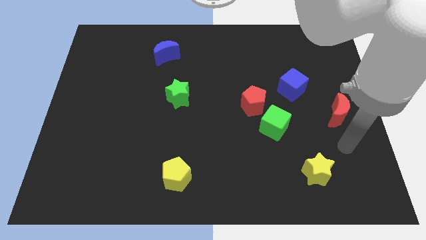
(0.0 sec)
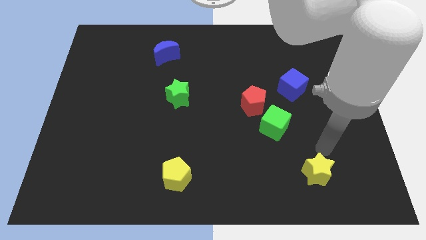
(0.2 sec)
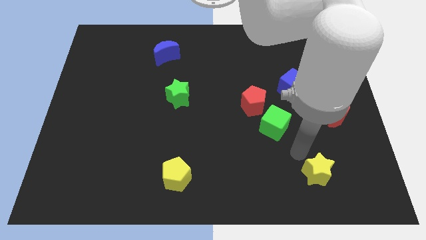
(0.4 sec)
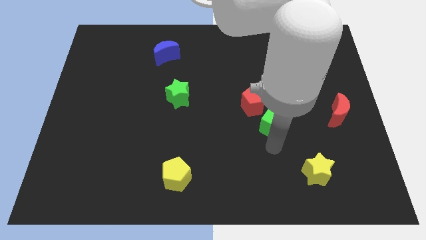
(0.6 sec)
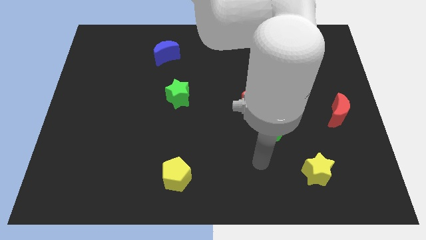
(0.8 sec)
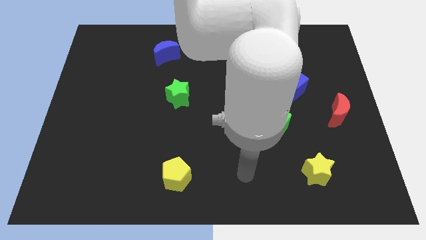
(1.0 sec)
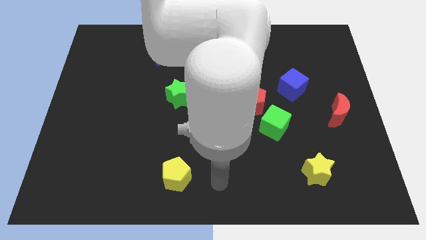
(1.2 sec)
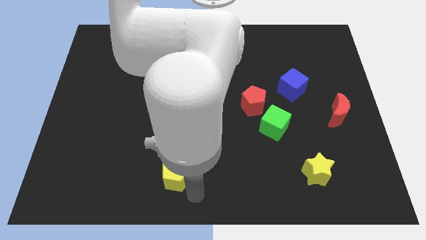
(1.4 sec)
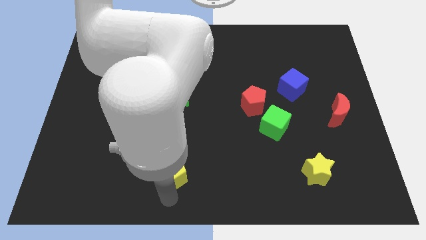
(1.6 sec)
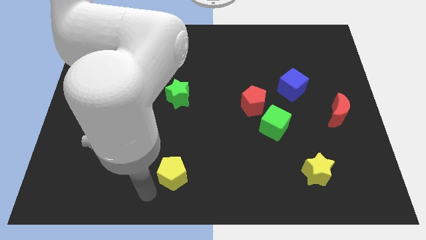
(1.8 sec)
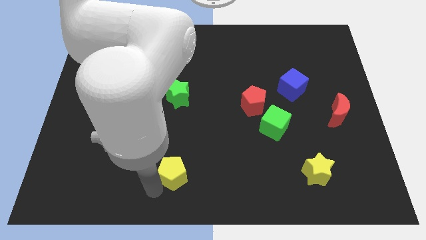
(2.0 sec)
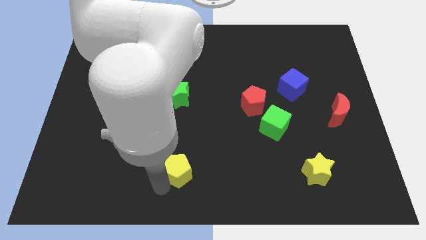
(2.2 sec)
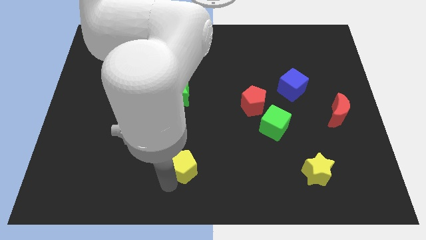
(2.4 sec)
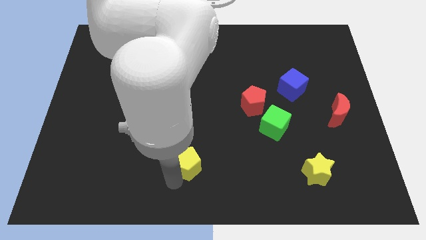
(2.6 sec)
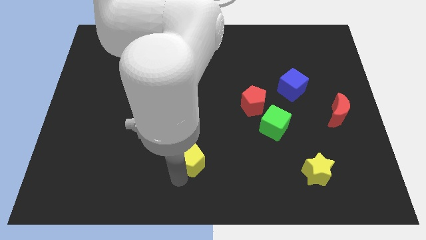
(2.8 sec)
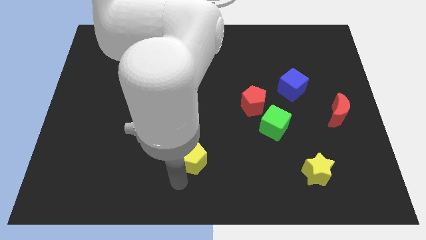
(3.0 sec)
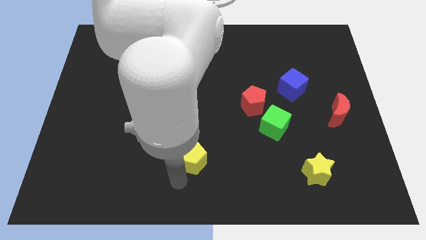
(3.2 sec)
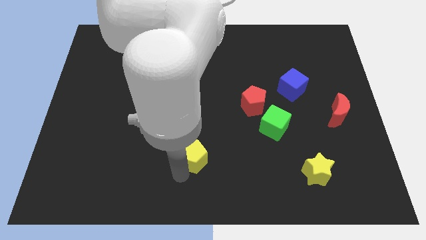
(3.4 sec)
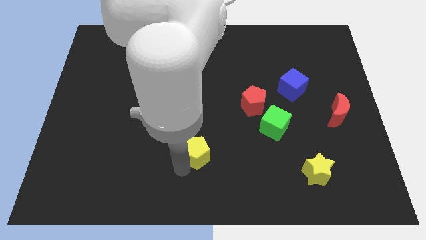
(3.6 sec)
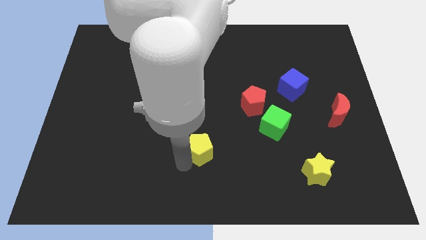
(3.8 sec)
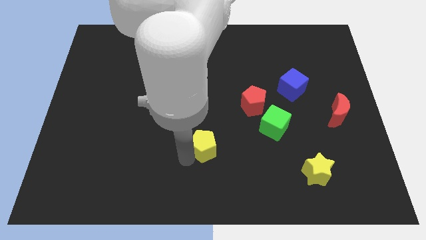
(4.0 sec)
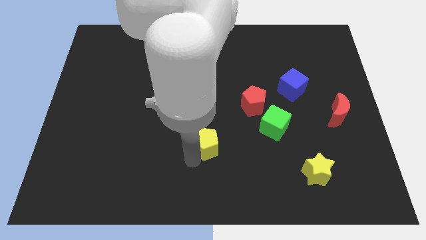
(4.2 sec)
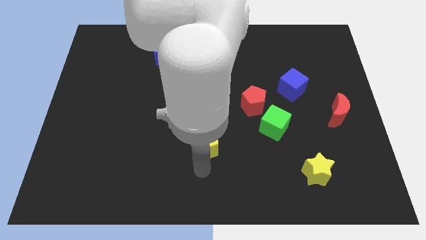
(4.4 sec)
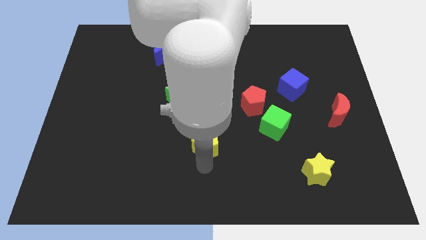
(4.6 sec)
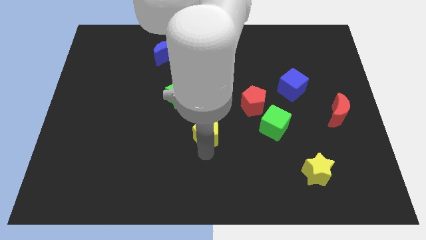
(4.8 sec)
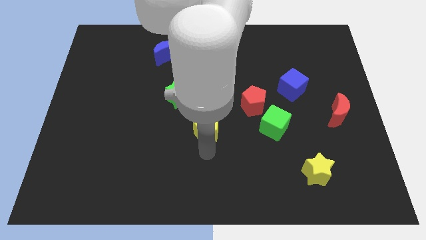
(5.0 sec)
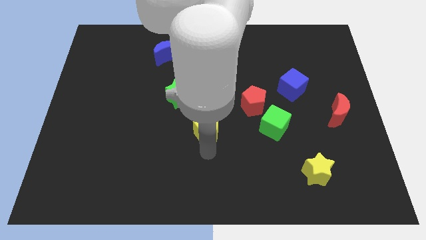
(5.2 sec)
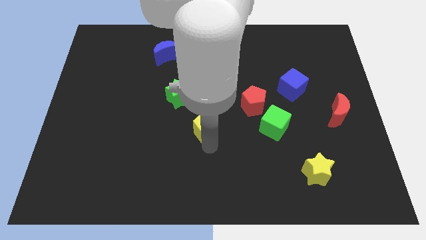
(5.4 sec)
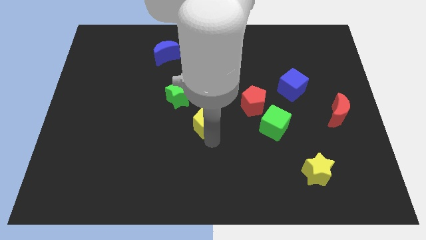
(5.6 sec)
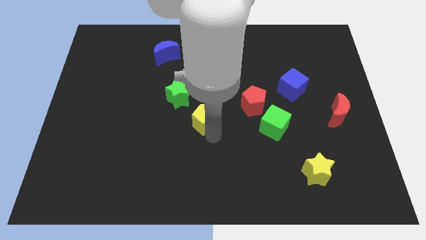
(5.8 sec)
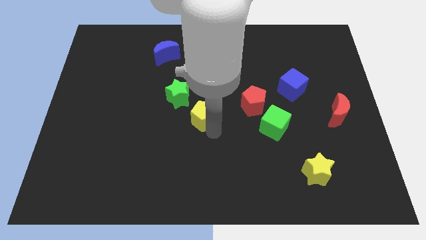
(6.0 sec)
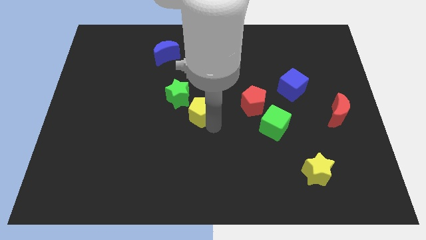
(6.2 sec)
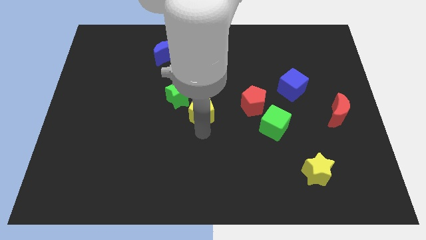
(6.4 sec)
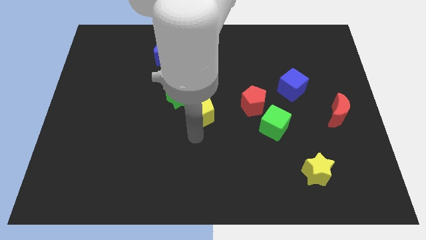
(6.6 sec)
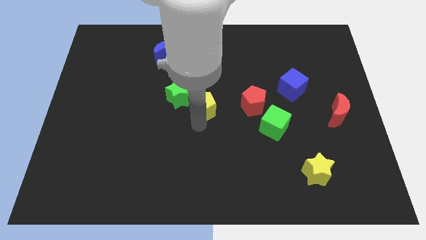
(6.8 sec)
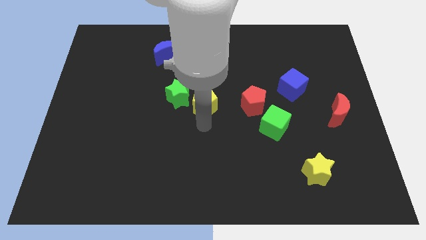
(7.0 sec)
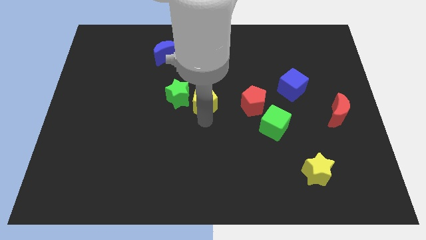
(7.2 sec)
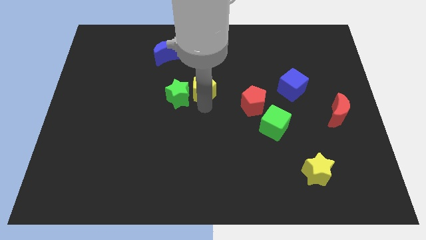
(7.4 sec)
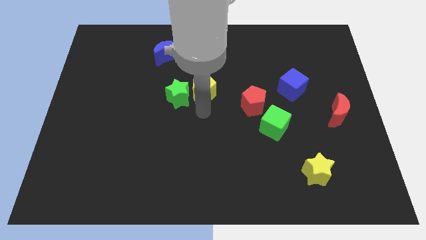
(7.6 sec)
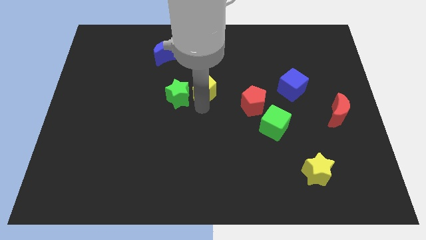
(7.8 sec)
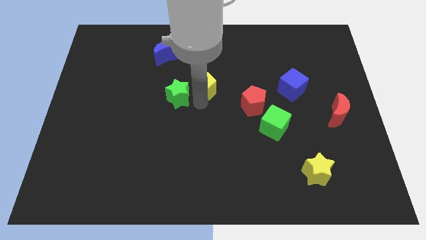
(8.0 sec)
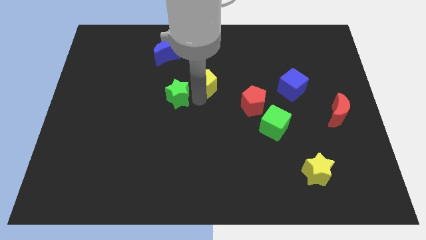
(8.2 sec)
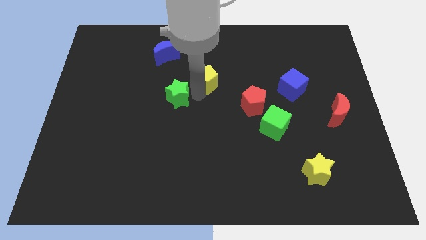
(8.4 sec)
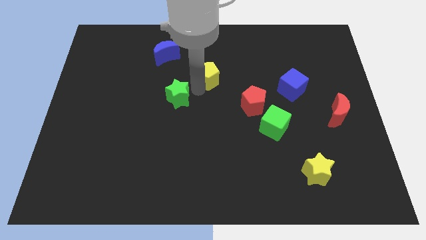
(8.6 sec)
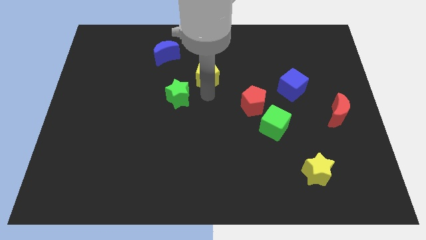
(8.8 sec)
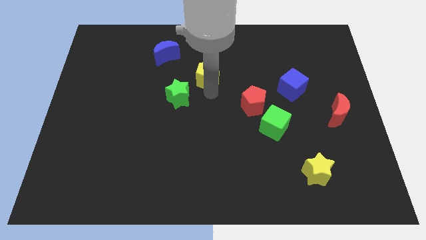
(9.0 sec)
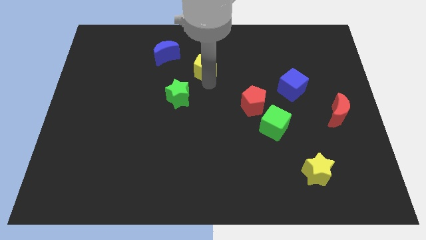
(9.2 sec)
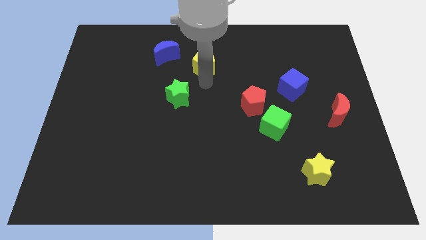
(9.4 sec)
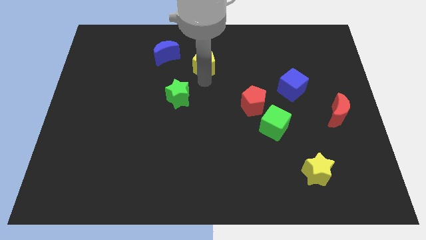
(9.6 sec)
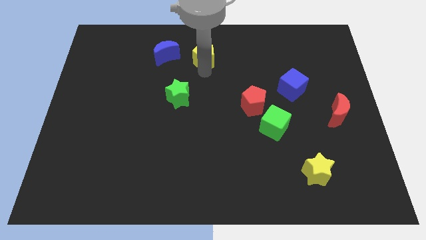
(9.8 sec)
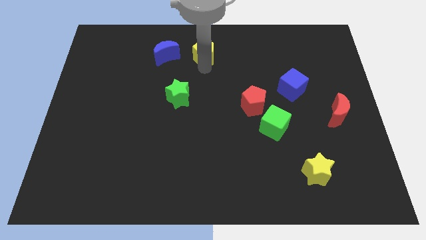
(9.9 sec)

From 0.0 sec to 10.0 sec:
push the yellow pentagon to the top

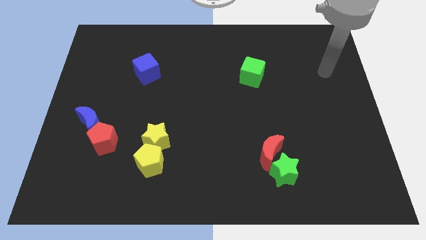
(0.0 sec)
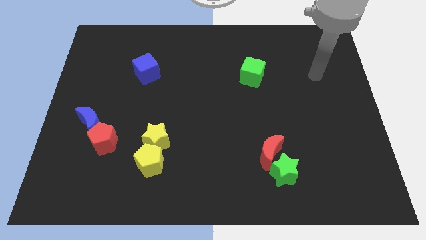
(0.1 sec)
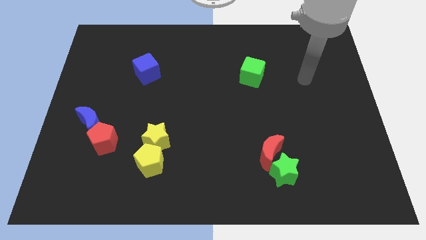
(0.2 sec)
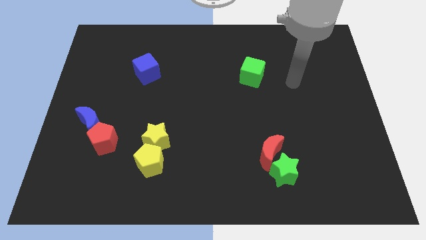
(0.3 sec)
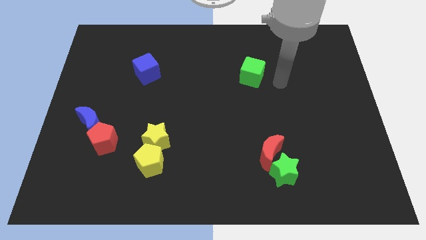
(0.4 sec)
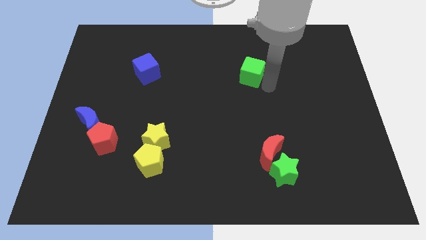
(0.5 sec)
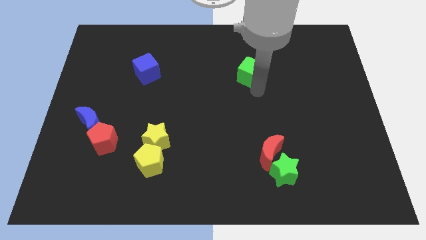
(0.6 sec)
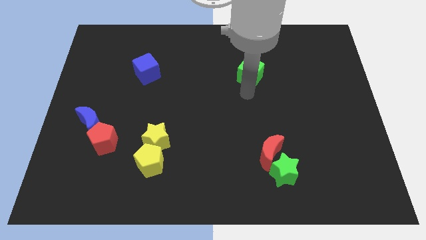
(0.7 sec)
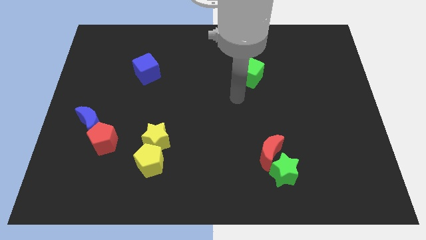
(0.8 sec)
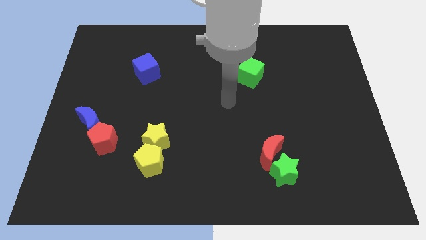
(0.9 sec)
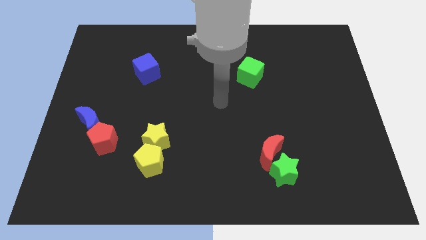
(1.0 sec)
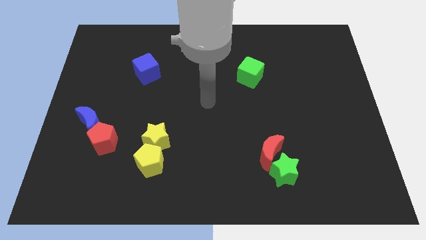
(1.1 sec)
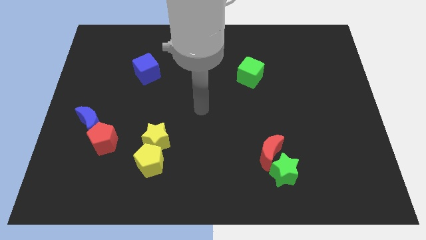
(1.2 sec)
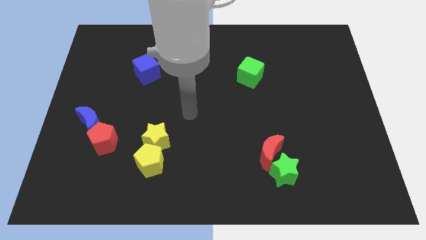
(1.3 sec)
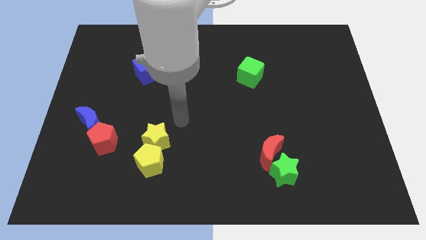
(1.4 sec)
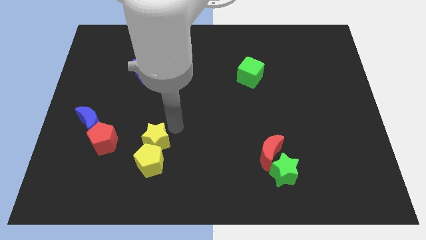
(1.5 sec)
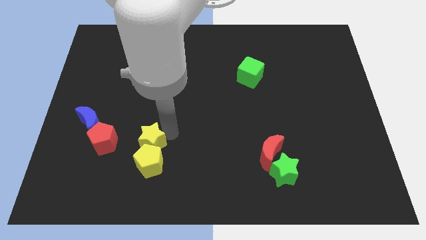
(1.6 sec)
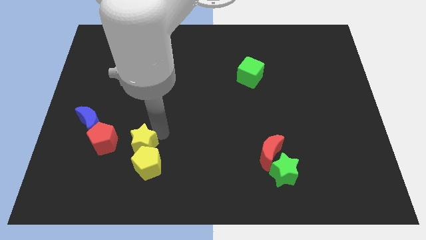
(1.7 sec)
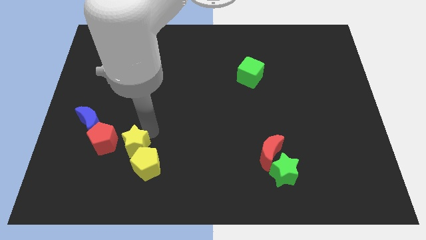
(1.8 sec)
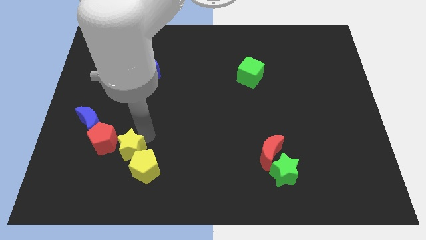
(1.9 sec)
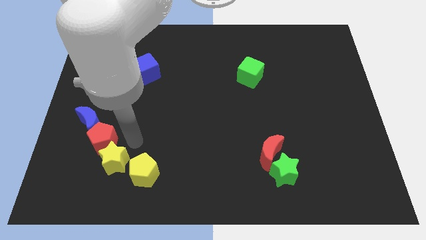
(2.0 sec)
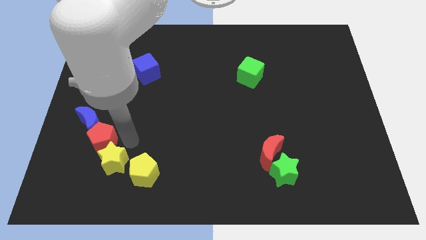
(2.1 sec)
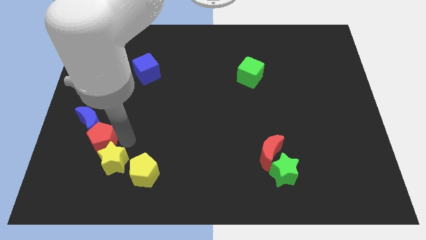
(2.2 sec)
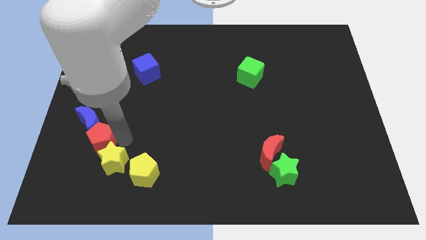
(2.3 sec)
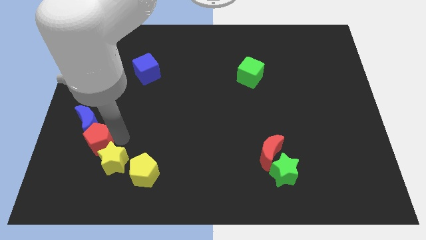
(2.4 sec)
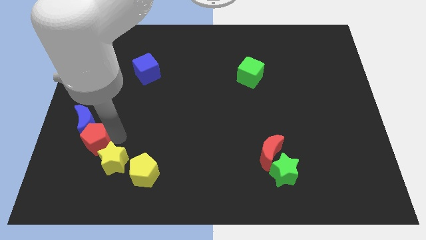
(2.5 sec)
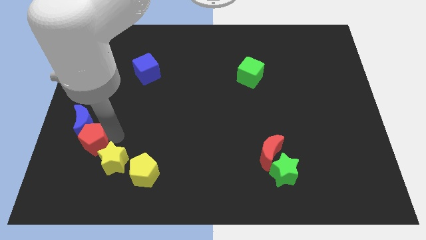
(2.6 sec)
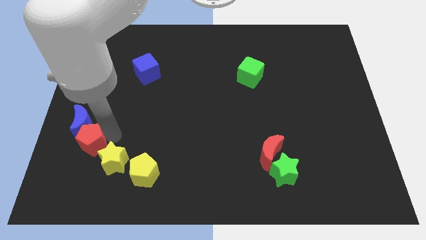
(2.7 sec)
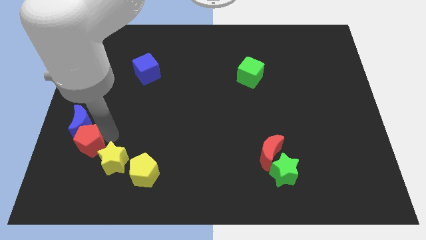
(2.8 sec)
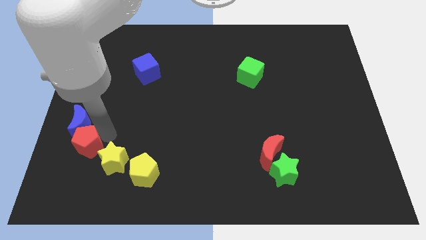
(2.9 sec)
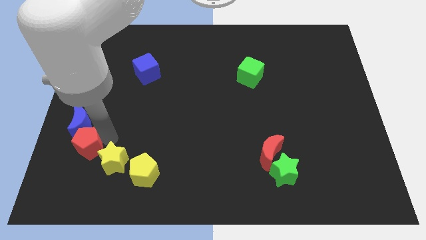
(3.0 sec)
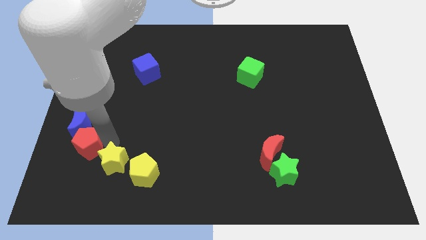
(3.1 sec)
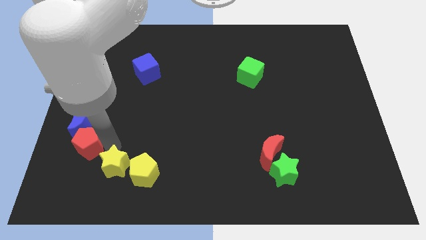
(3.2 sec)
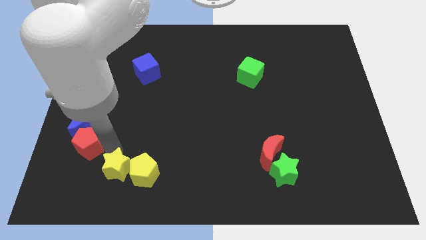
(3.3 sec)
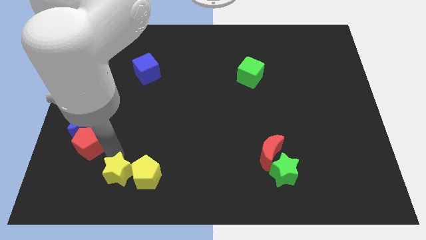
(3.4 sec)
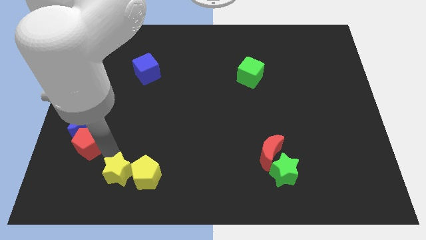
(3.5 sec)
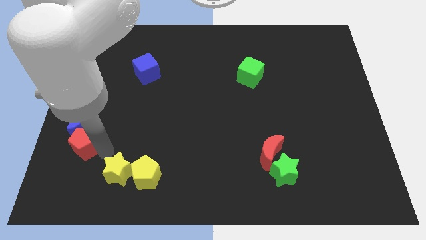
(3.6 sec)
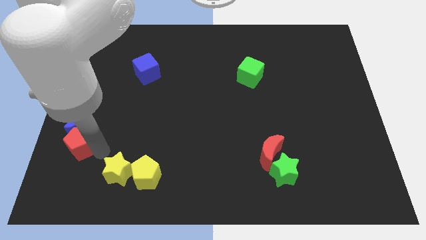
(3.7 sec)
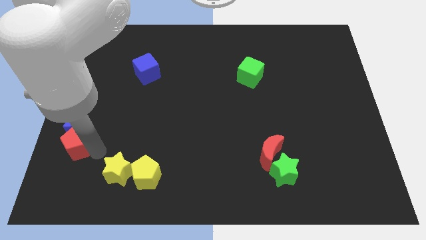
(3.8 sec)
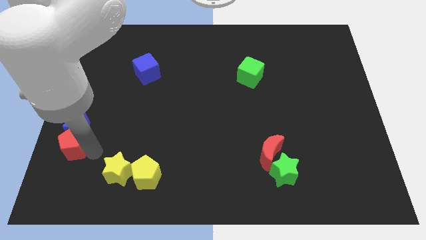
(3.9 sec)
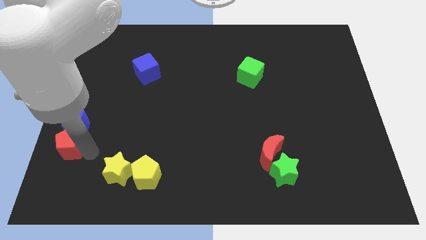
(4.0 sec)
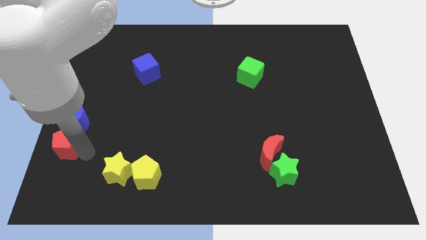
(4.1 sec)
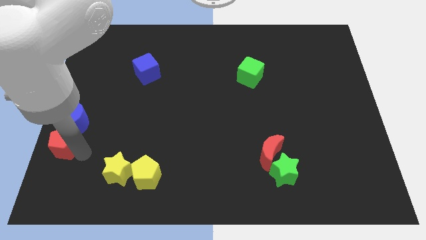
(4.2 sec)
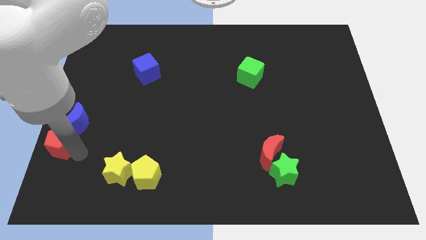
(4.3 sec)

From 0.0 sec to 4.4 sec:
put the red pentagon to the center left
